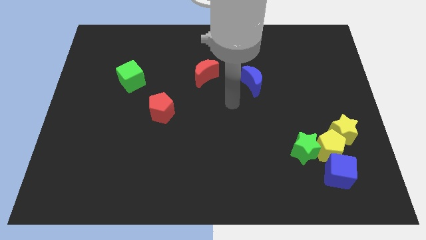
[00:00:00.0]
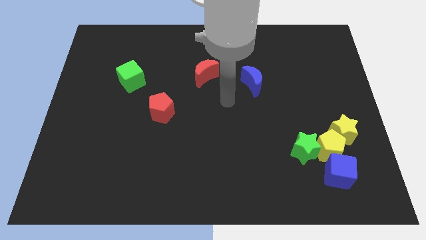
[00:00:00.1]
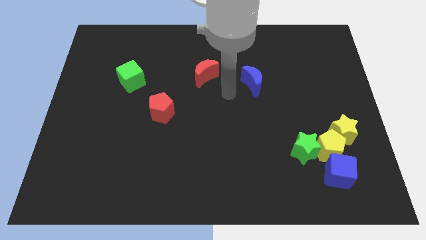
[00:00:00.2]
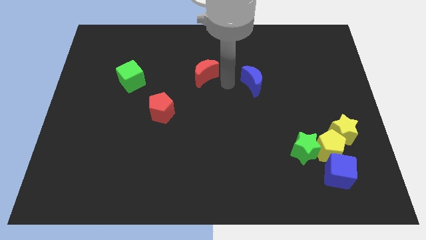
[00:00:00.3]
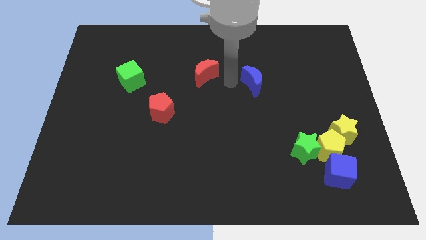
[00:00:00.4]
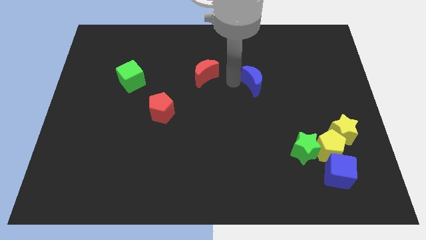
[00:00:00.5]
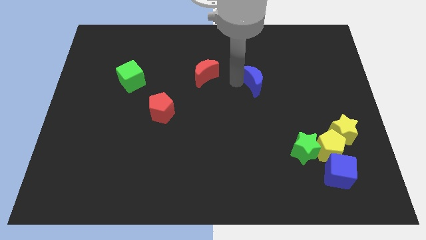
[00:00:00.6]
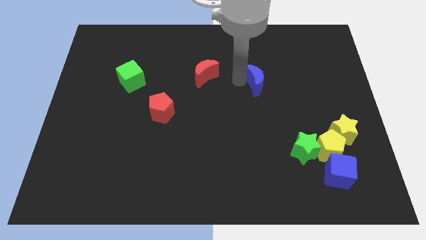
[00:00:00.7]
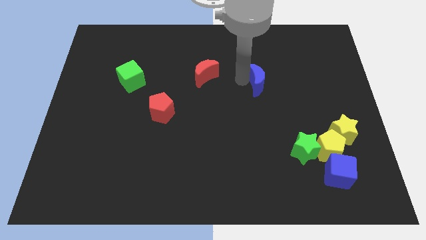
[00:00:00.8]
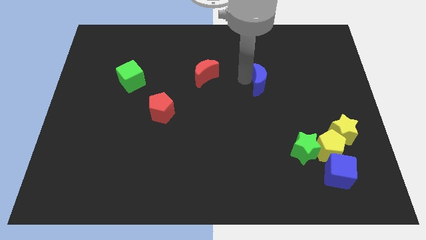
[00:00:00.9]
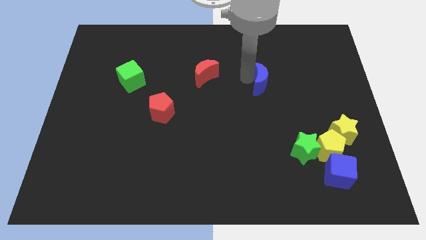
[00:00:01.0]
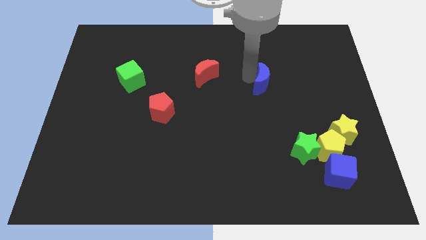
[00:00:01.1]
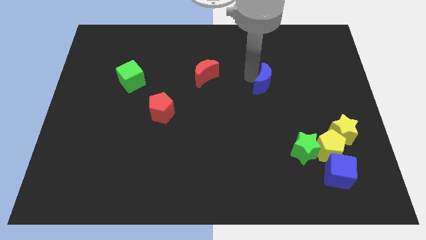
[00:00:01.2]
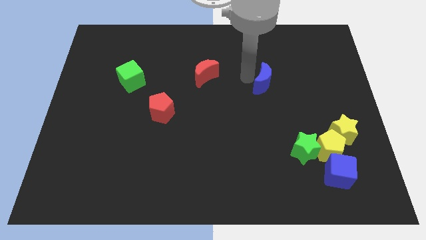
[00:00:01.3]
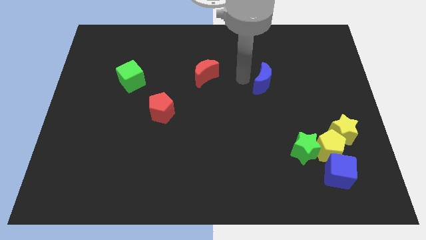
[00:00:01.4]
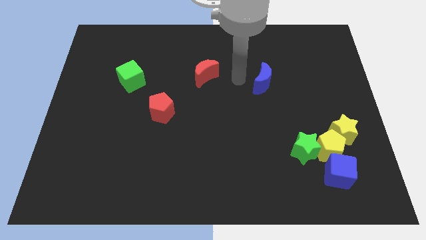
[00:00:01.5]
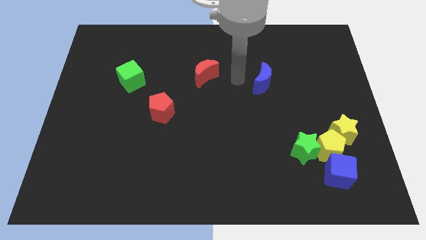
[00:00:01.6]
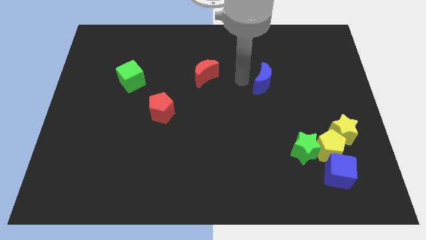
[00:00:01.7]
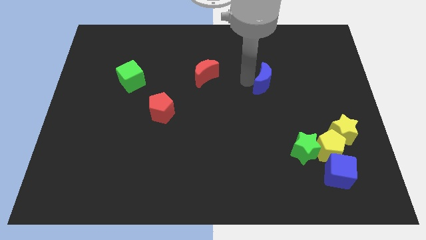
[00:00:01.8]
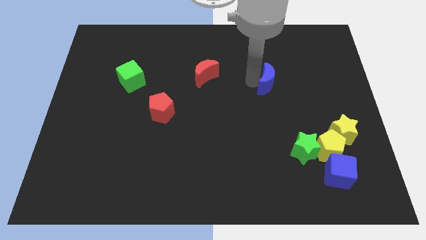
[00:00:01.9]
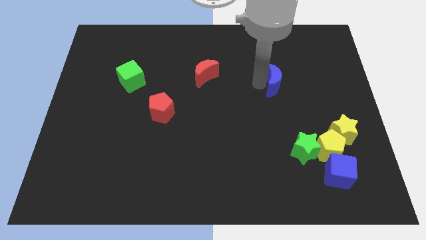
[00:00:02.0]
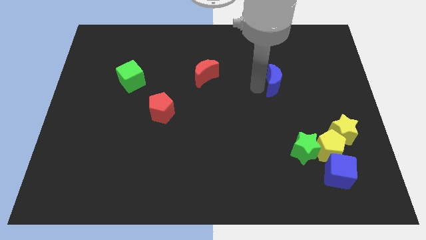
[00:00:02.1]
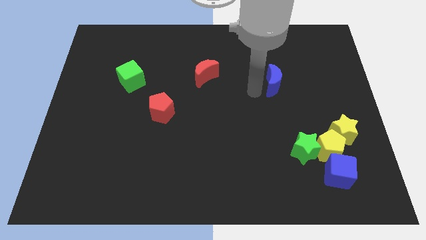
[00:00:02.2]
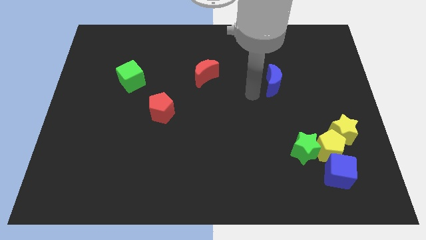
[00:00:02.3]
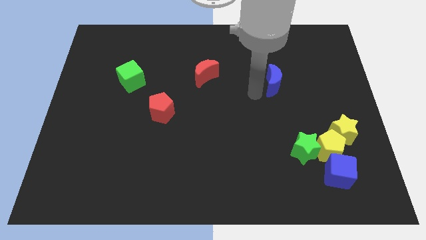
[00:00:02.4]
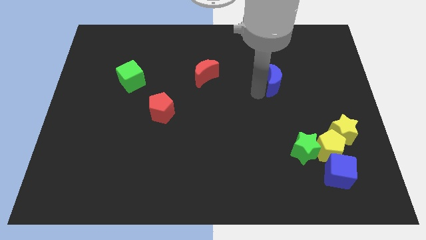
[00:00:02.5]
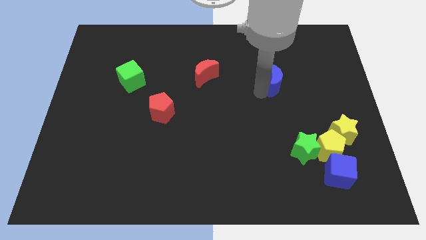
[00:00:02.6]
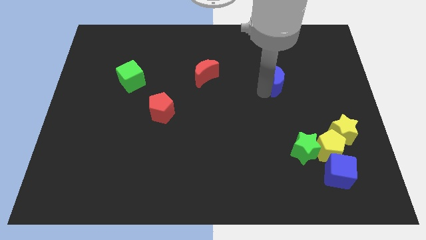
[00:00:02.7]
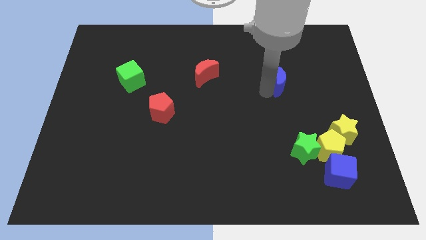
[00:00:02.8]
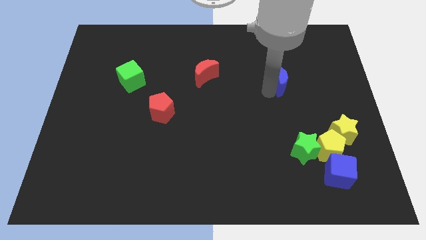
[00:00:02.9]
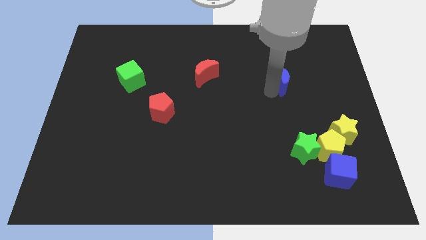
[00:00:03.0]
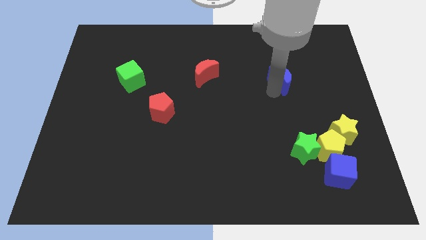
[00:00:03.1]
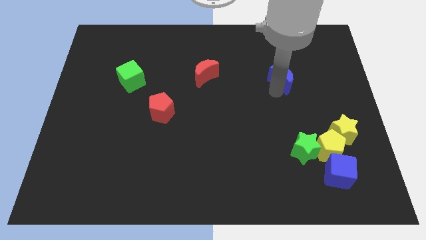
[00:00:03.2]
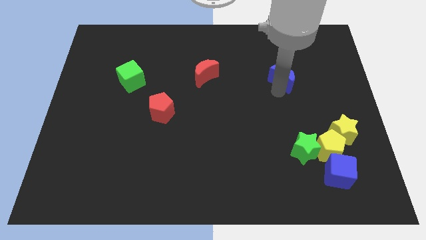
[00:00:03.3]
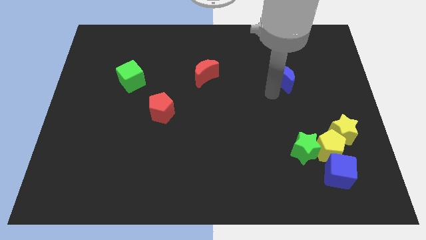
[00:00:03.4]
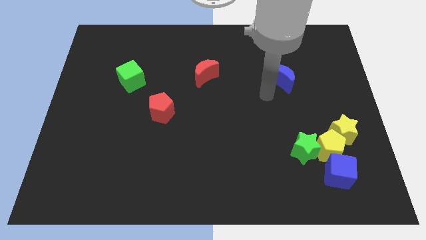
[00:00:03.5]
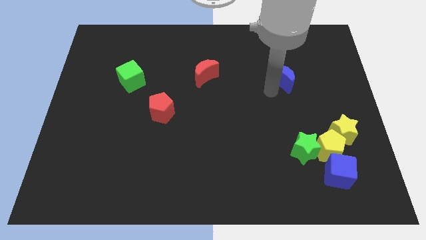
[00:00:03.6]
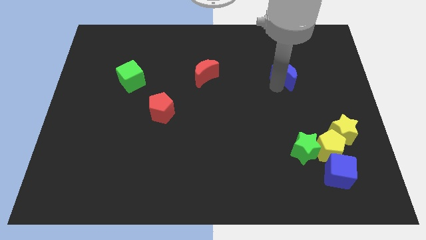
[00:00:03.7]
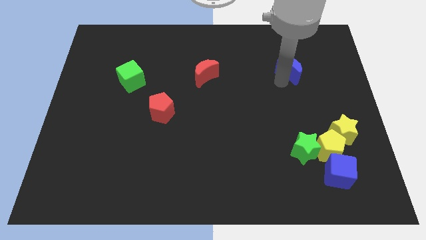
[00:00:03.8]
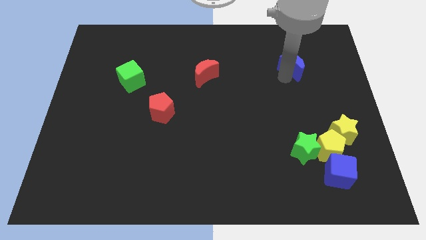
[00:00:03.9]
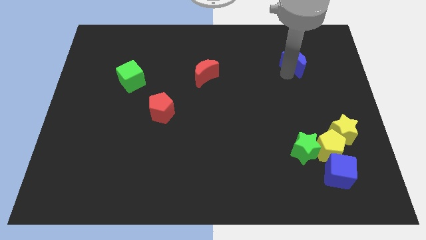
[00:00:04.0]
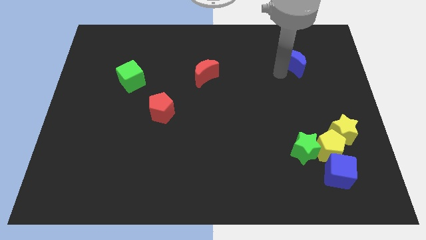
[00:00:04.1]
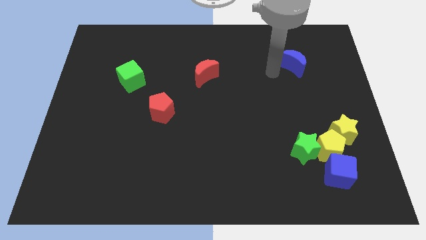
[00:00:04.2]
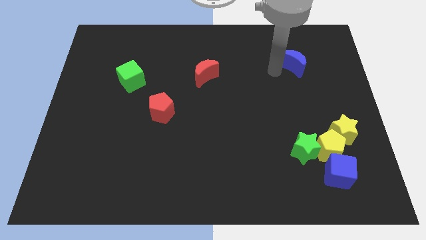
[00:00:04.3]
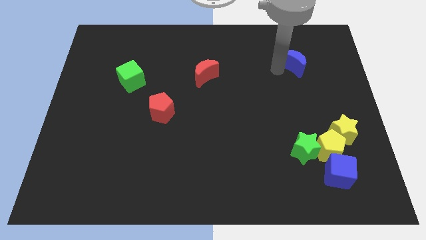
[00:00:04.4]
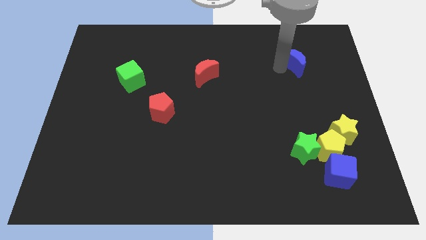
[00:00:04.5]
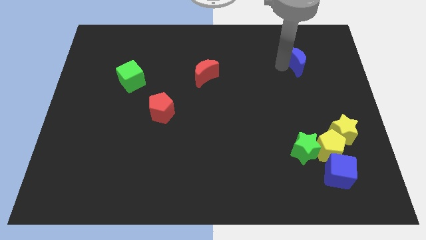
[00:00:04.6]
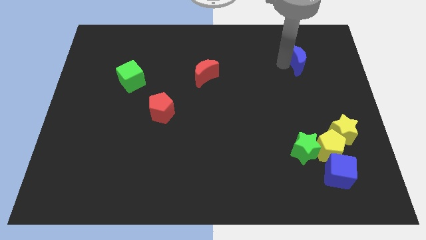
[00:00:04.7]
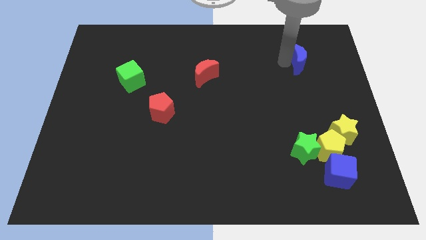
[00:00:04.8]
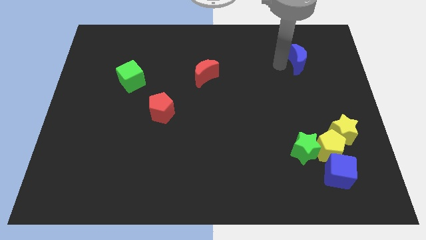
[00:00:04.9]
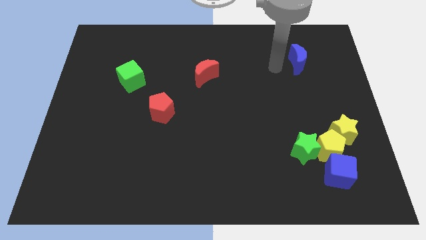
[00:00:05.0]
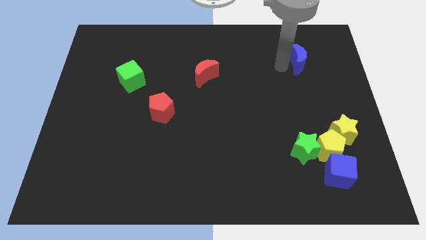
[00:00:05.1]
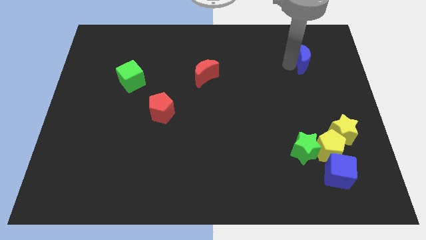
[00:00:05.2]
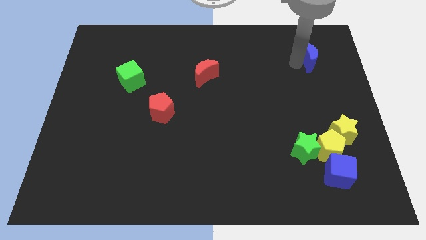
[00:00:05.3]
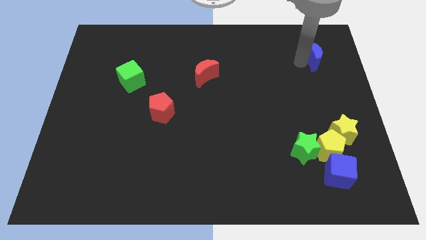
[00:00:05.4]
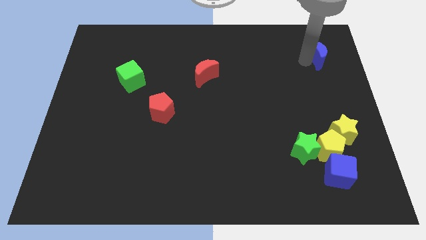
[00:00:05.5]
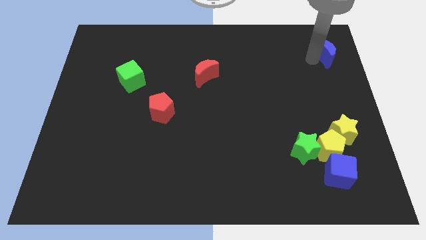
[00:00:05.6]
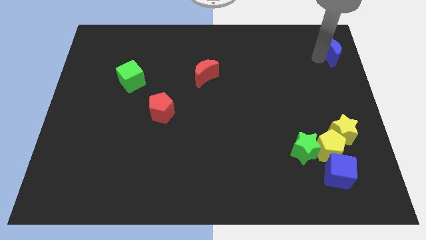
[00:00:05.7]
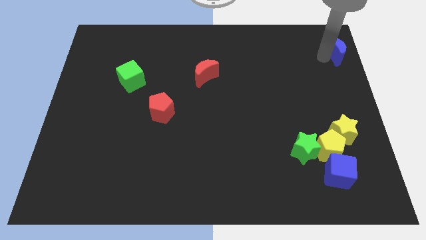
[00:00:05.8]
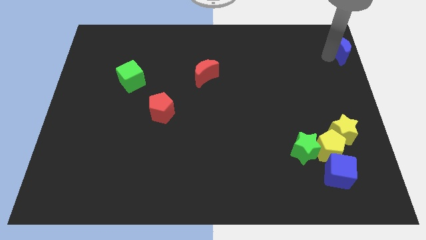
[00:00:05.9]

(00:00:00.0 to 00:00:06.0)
move the blue moon to the top right

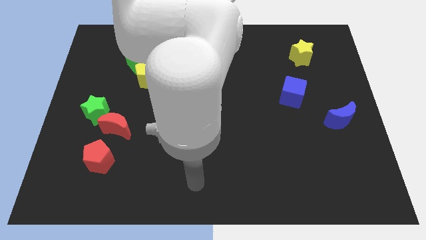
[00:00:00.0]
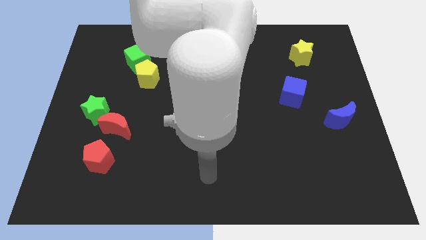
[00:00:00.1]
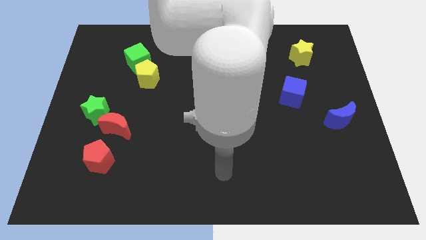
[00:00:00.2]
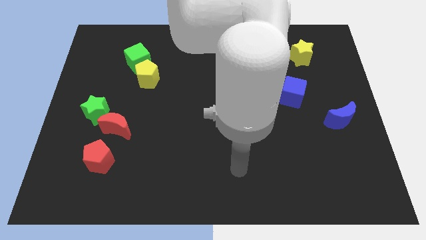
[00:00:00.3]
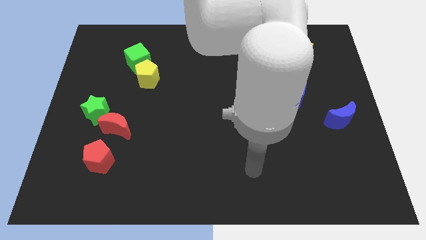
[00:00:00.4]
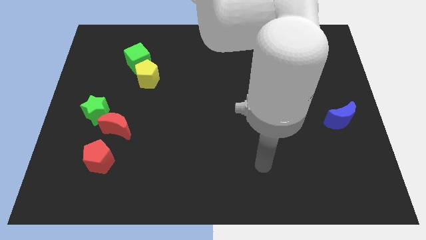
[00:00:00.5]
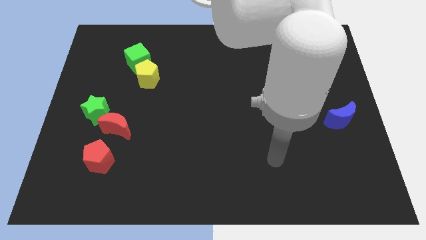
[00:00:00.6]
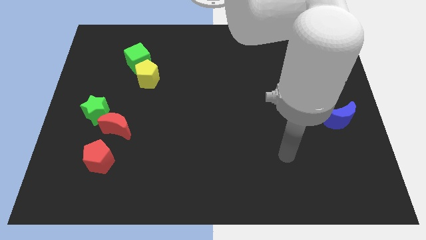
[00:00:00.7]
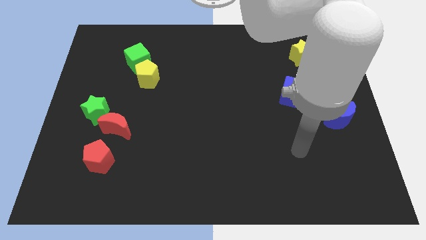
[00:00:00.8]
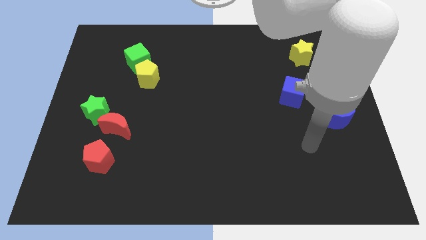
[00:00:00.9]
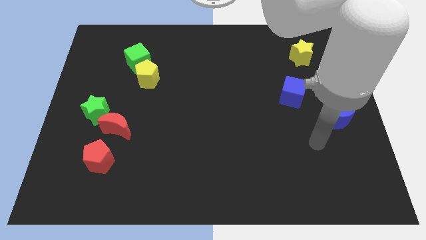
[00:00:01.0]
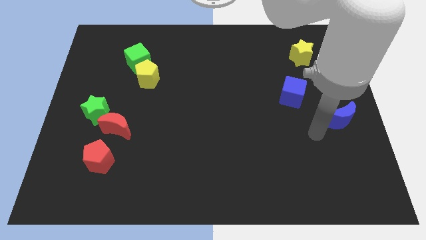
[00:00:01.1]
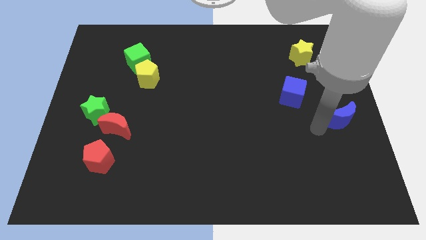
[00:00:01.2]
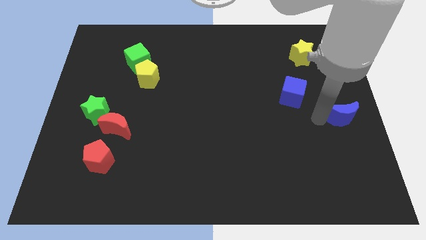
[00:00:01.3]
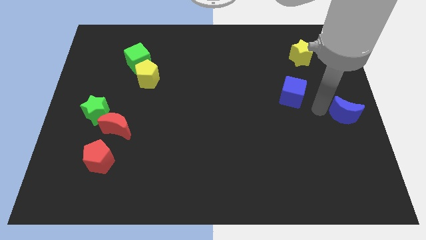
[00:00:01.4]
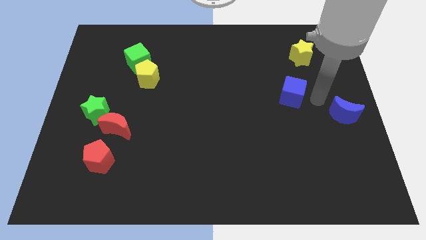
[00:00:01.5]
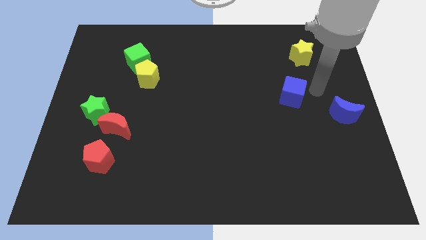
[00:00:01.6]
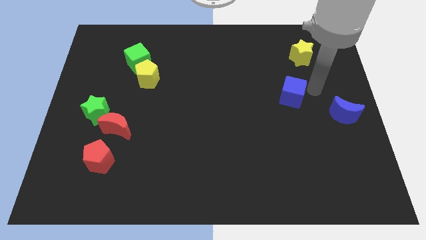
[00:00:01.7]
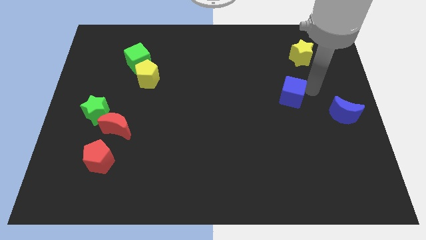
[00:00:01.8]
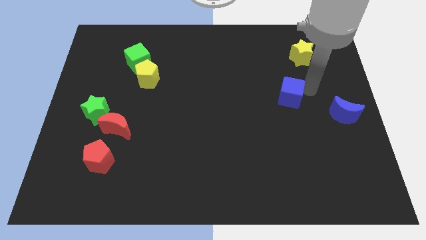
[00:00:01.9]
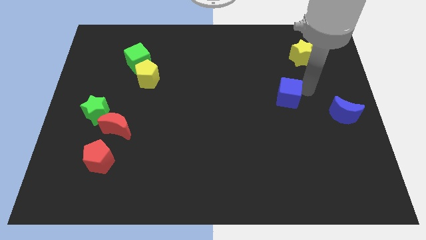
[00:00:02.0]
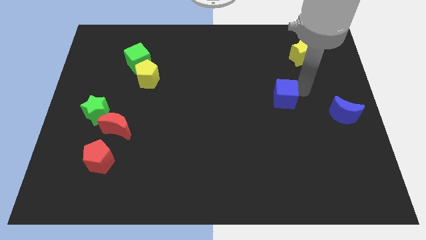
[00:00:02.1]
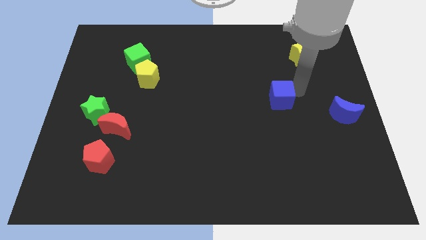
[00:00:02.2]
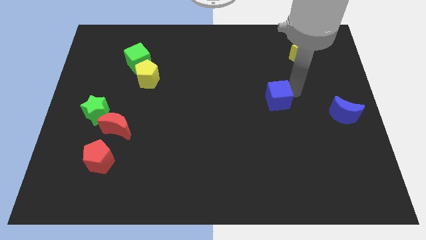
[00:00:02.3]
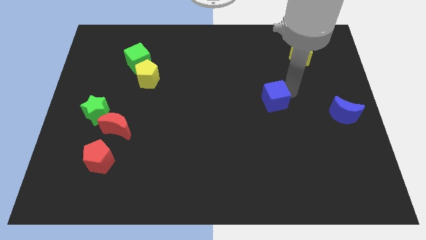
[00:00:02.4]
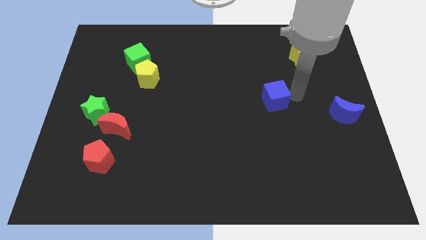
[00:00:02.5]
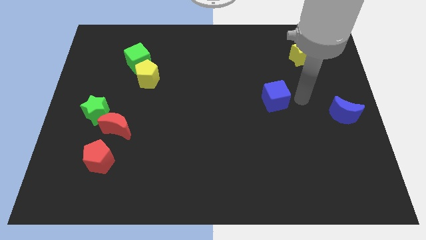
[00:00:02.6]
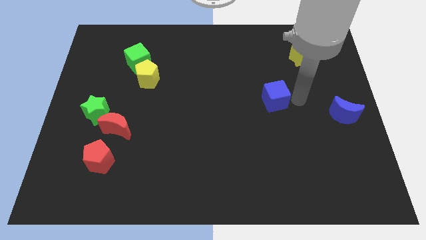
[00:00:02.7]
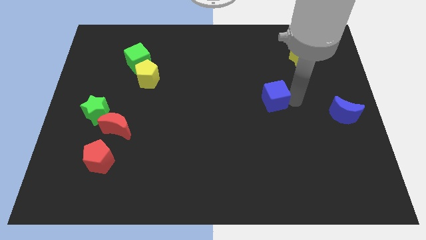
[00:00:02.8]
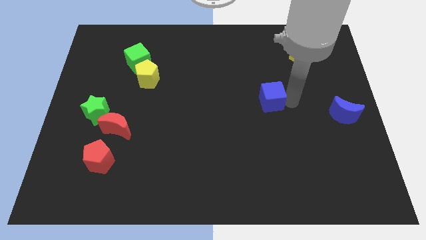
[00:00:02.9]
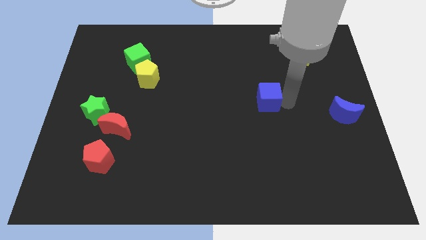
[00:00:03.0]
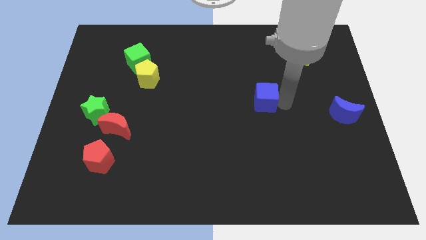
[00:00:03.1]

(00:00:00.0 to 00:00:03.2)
push the blue cube to the center of the board
